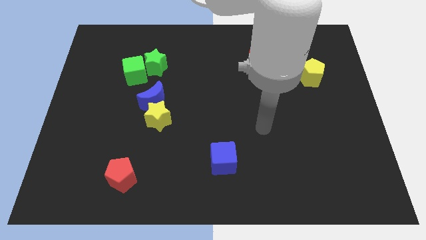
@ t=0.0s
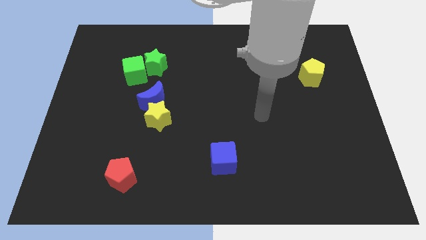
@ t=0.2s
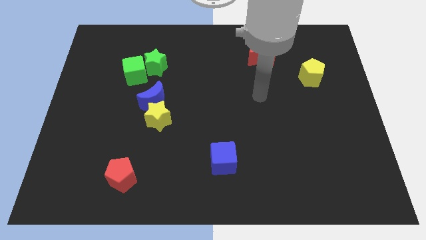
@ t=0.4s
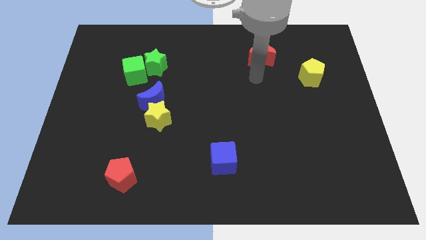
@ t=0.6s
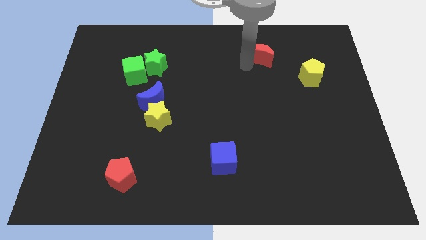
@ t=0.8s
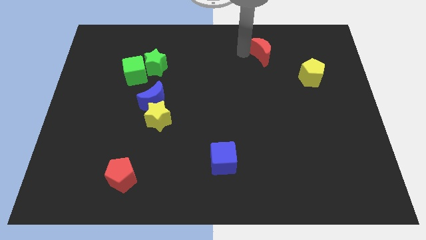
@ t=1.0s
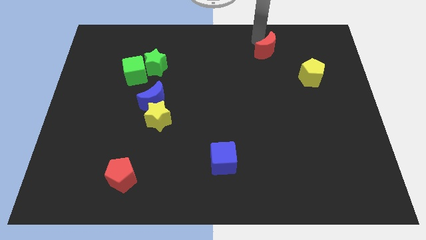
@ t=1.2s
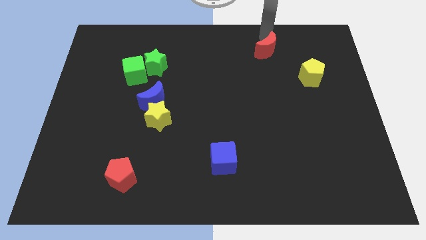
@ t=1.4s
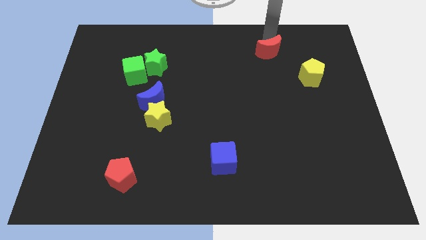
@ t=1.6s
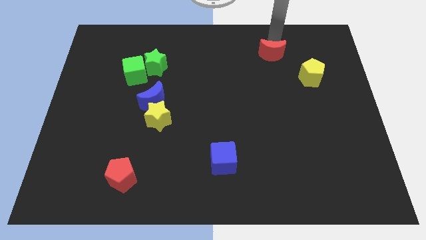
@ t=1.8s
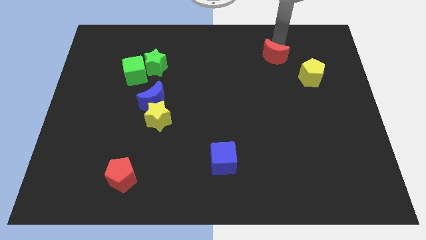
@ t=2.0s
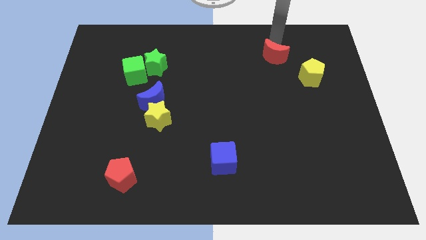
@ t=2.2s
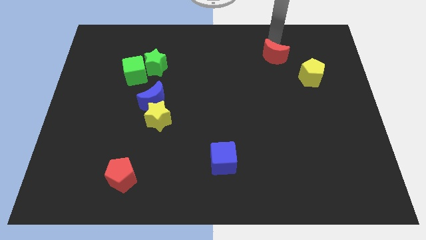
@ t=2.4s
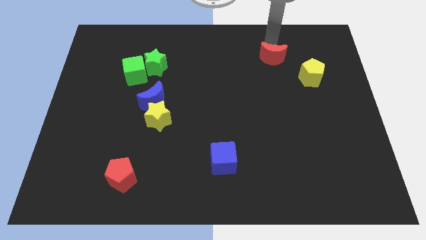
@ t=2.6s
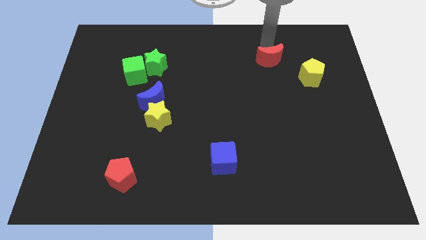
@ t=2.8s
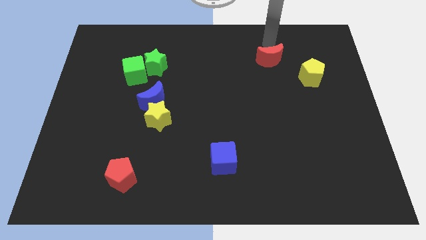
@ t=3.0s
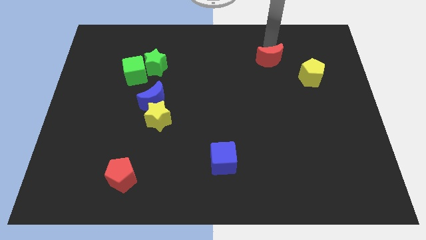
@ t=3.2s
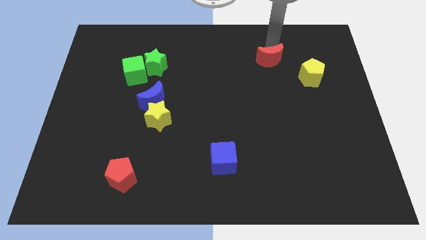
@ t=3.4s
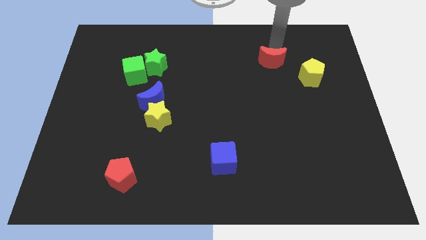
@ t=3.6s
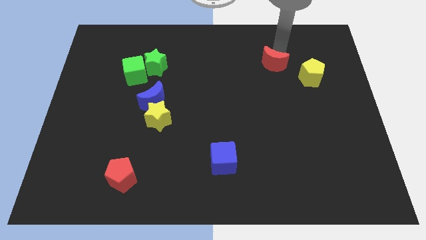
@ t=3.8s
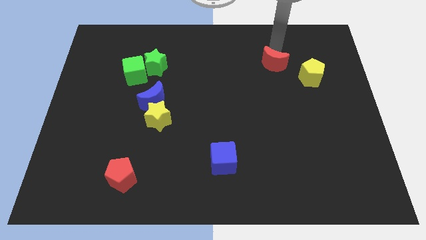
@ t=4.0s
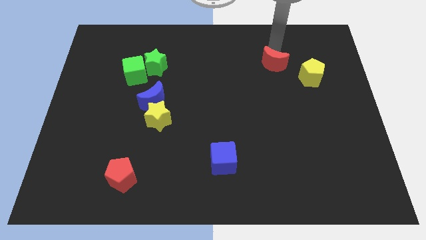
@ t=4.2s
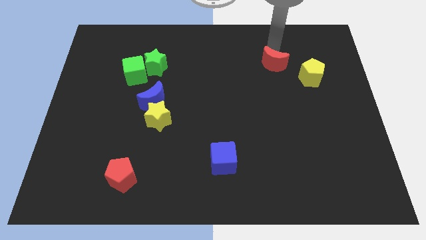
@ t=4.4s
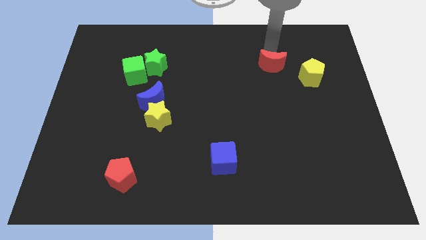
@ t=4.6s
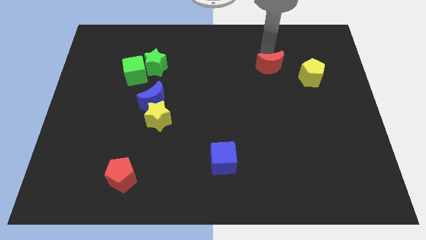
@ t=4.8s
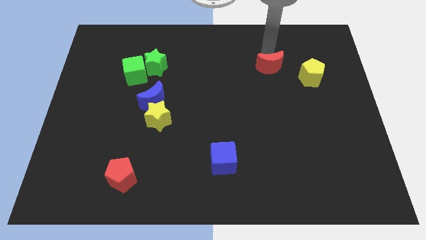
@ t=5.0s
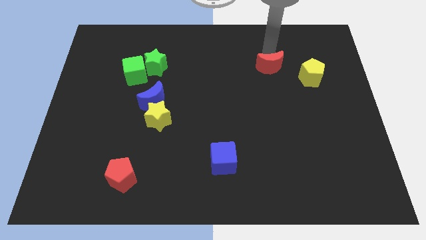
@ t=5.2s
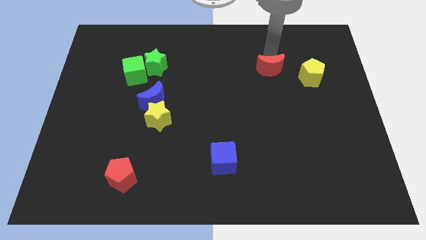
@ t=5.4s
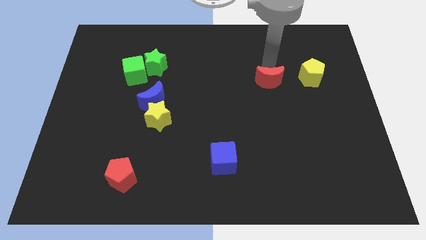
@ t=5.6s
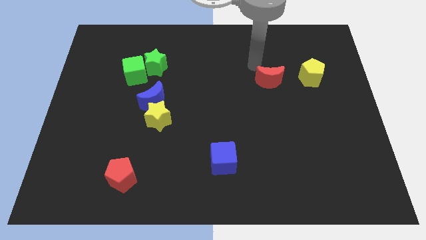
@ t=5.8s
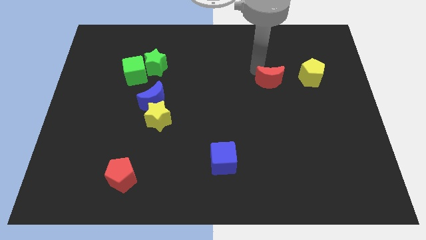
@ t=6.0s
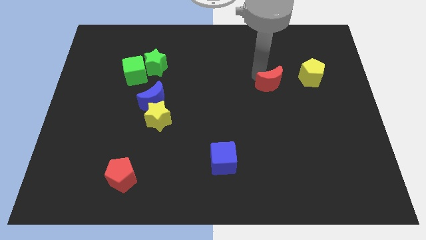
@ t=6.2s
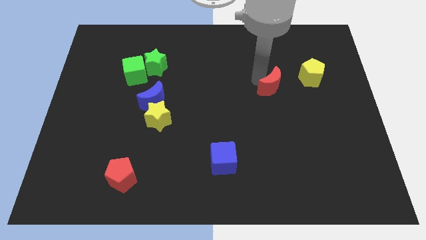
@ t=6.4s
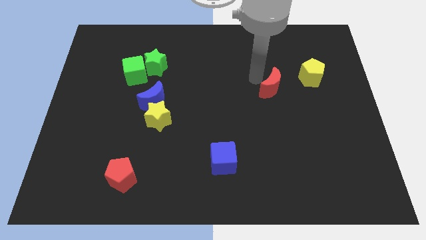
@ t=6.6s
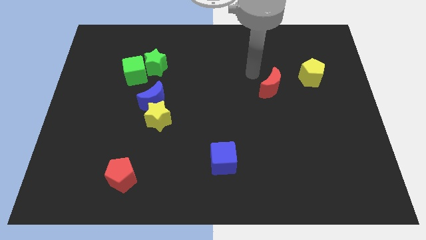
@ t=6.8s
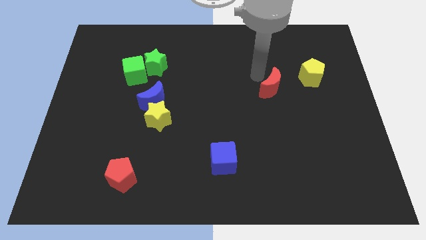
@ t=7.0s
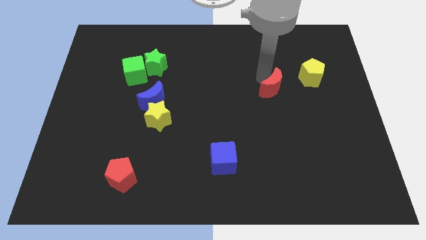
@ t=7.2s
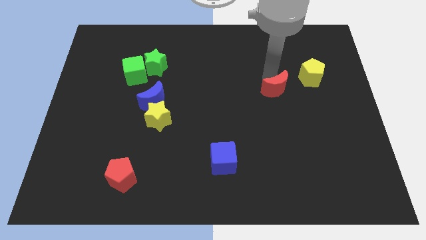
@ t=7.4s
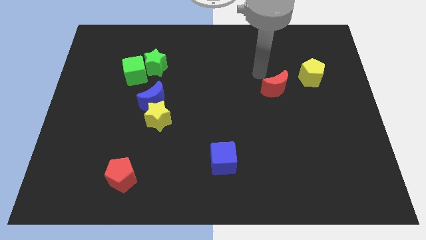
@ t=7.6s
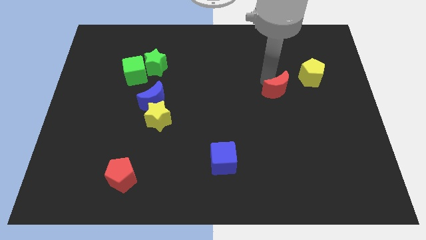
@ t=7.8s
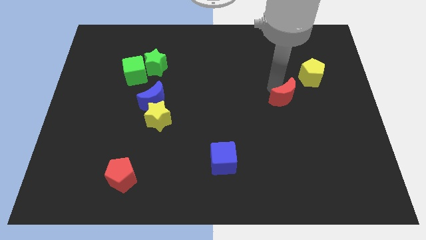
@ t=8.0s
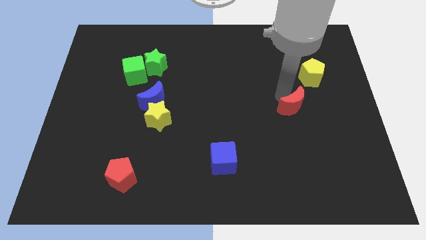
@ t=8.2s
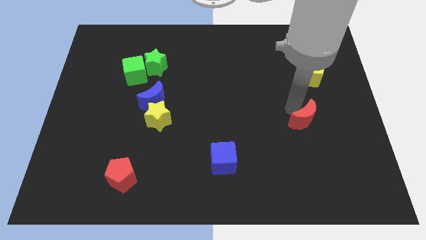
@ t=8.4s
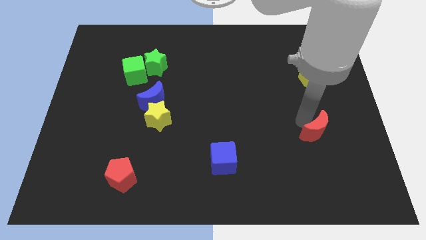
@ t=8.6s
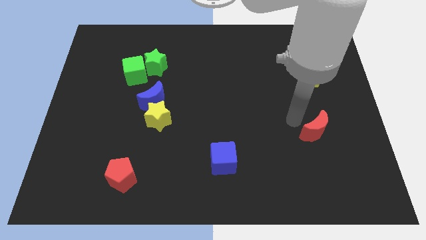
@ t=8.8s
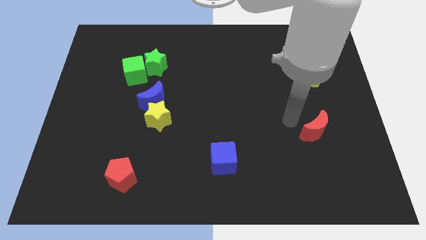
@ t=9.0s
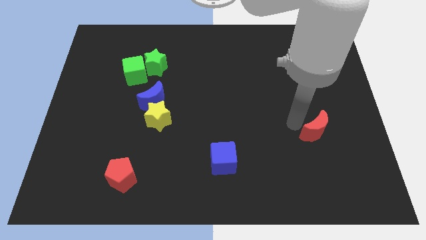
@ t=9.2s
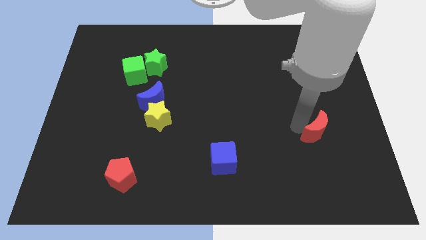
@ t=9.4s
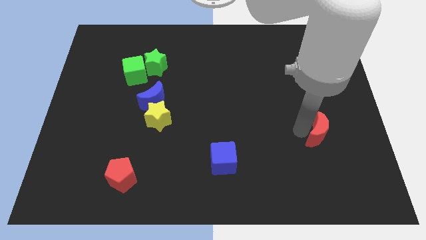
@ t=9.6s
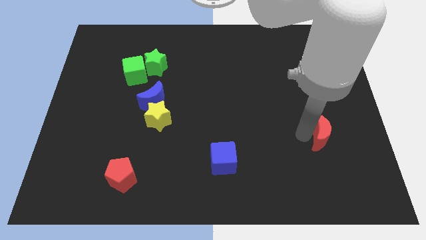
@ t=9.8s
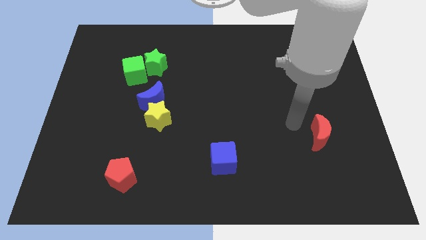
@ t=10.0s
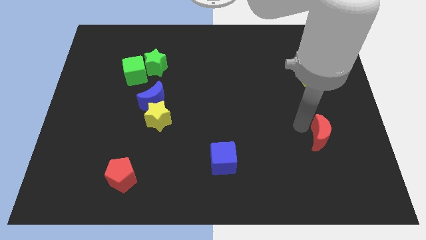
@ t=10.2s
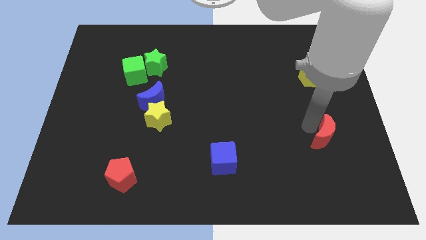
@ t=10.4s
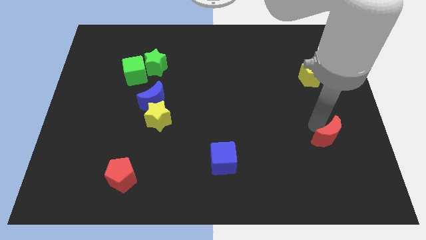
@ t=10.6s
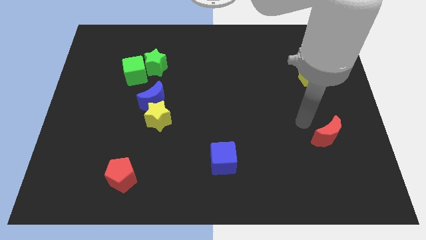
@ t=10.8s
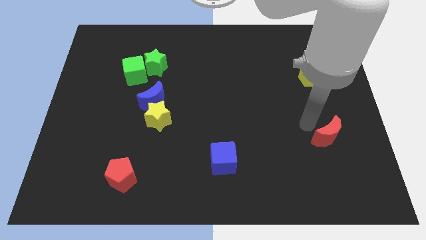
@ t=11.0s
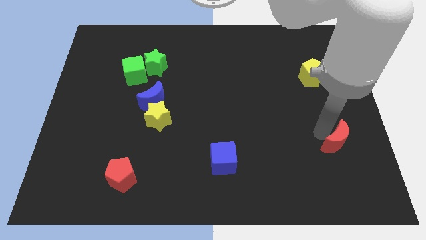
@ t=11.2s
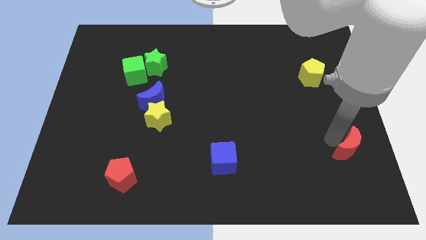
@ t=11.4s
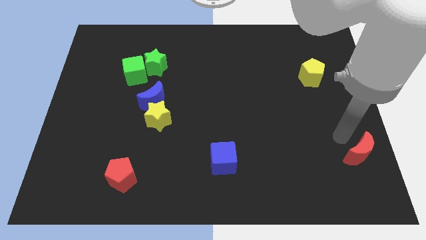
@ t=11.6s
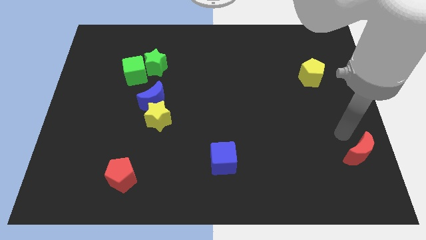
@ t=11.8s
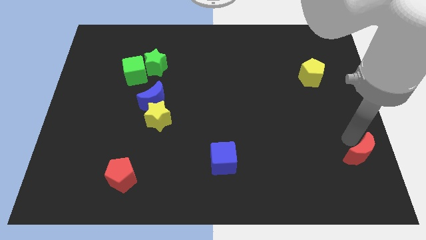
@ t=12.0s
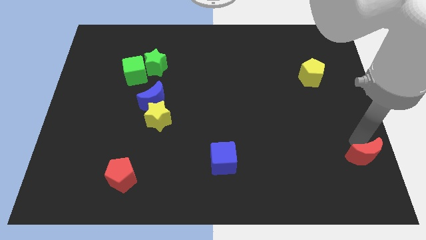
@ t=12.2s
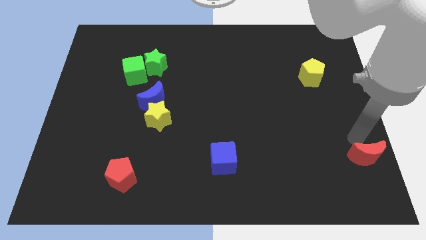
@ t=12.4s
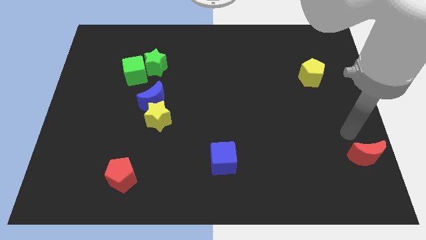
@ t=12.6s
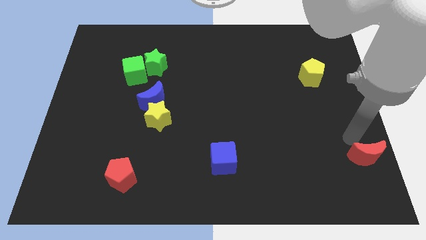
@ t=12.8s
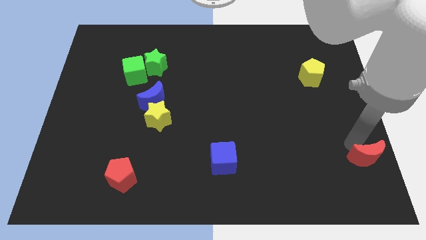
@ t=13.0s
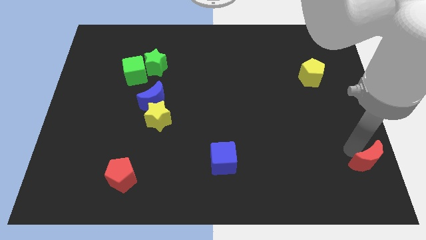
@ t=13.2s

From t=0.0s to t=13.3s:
move the red moon to the bottom right corner
